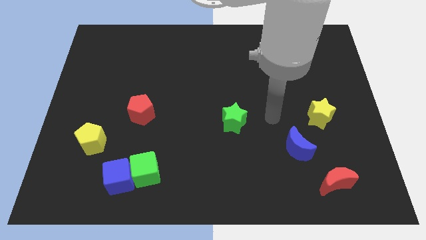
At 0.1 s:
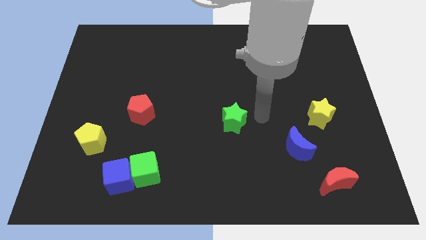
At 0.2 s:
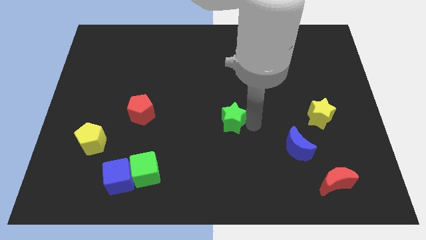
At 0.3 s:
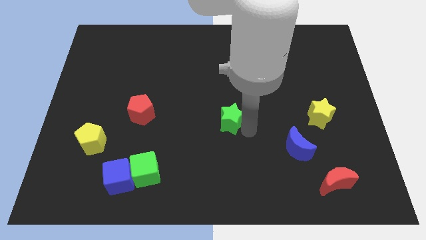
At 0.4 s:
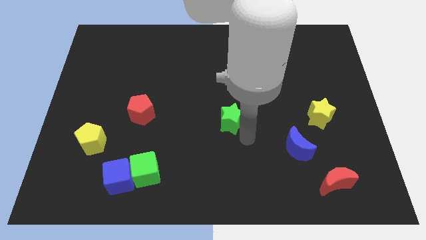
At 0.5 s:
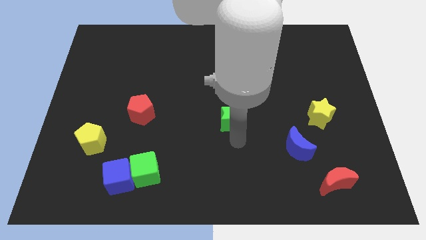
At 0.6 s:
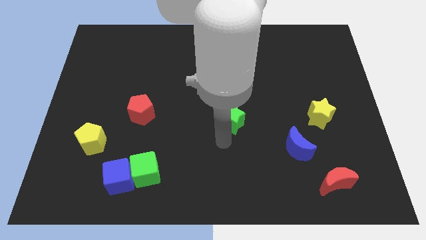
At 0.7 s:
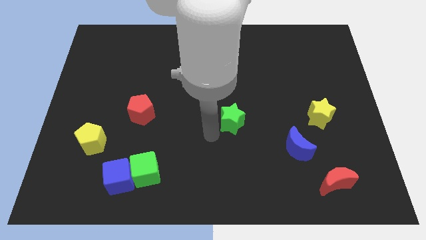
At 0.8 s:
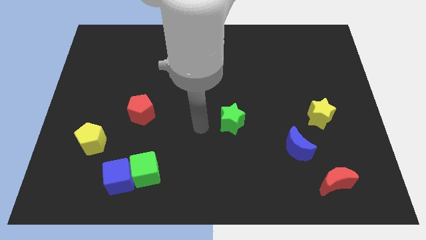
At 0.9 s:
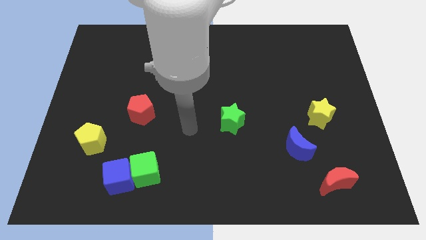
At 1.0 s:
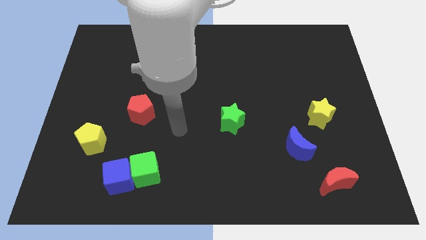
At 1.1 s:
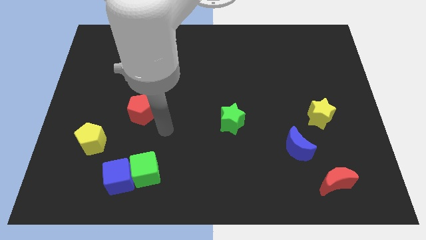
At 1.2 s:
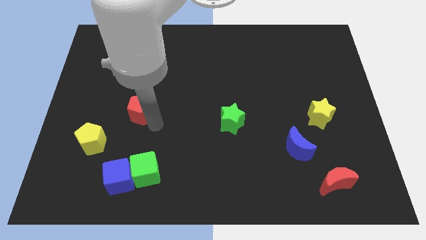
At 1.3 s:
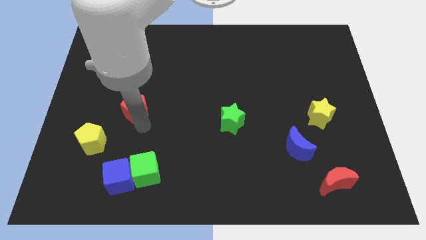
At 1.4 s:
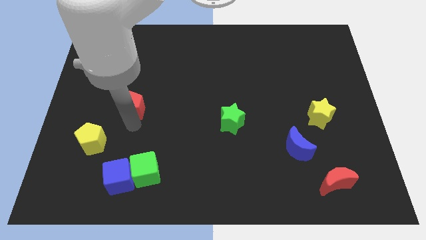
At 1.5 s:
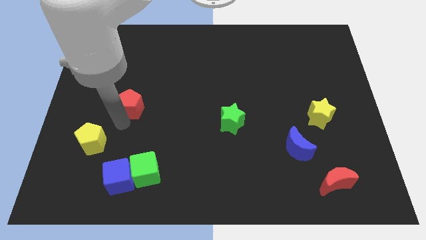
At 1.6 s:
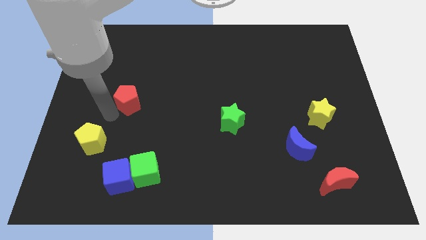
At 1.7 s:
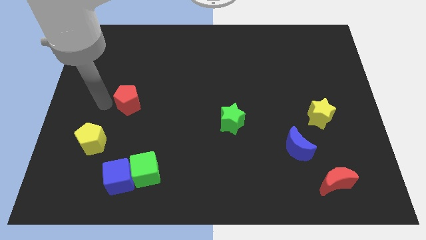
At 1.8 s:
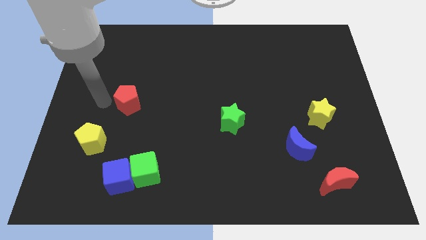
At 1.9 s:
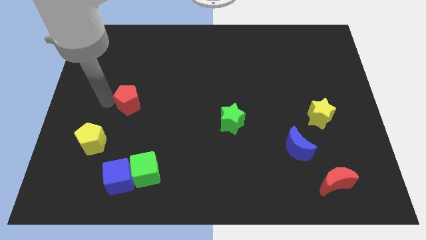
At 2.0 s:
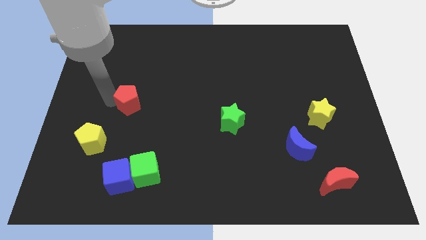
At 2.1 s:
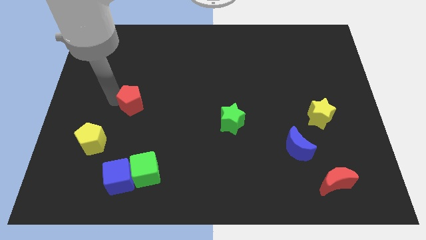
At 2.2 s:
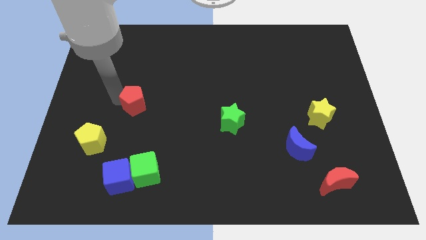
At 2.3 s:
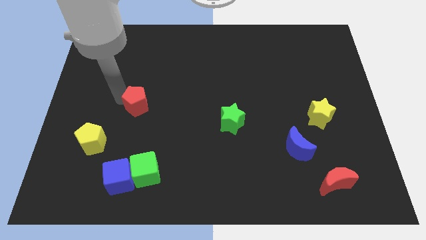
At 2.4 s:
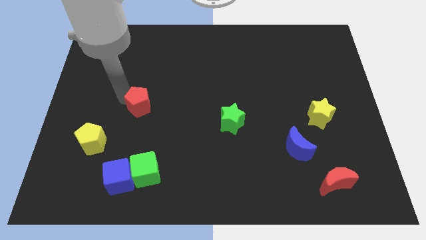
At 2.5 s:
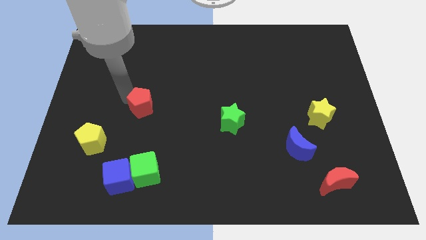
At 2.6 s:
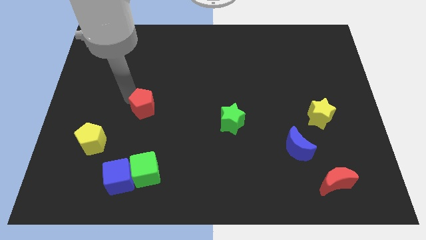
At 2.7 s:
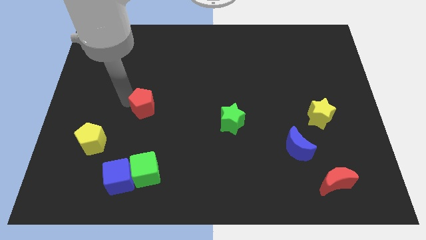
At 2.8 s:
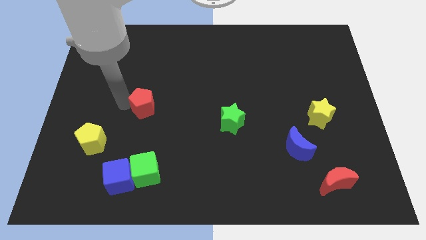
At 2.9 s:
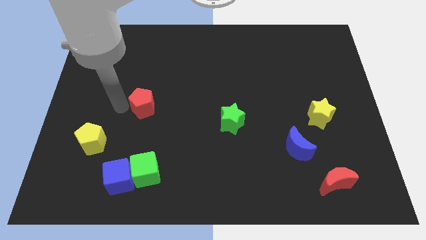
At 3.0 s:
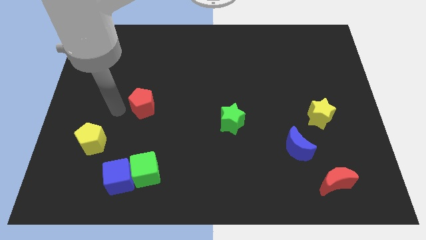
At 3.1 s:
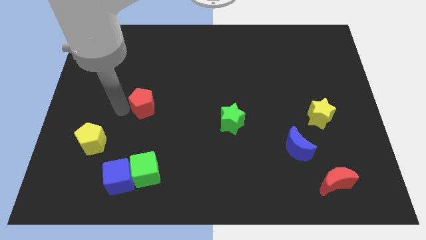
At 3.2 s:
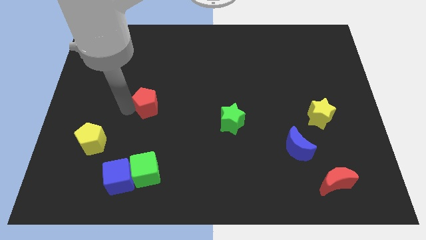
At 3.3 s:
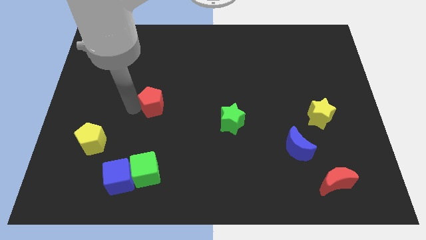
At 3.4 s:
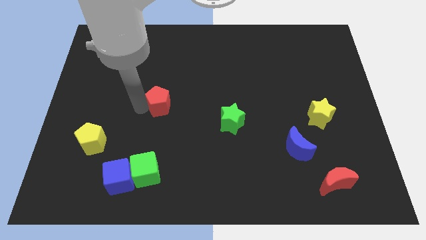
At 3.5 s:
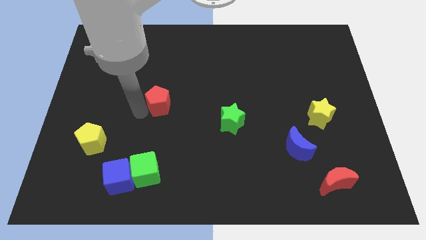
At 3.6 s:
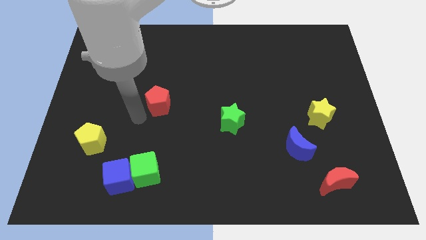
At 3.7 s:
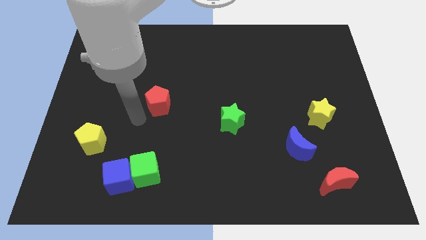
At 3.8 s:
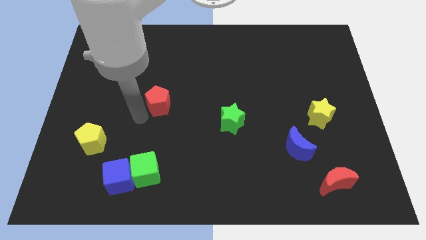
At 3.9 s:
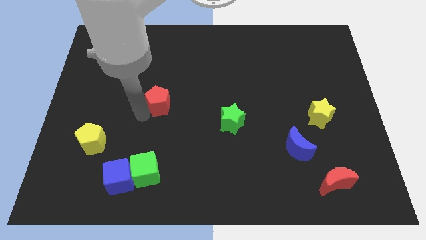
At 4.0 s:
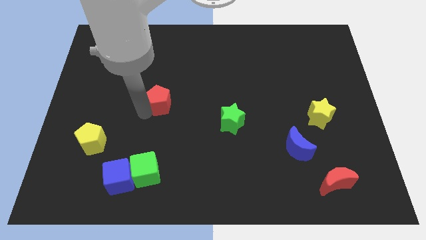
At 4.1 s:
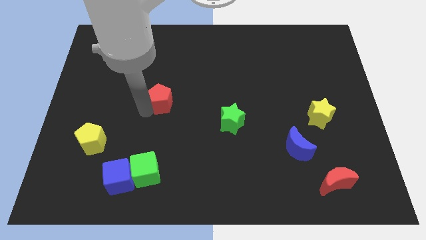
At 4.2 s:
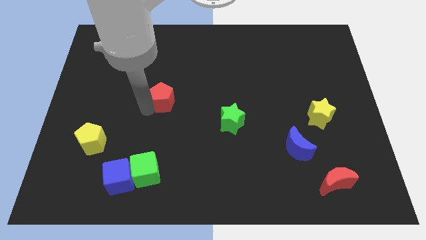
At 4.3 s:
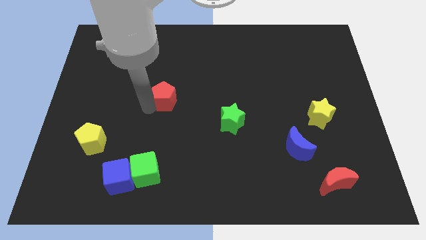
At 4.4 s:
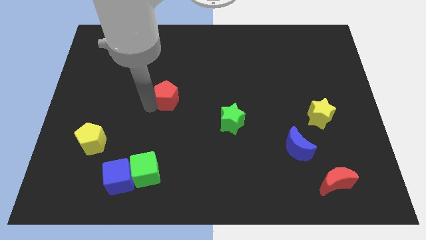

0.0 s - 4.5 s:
slightly move the red pentagon diagonally upwards and to the right

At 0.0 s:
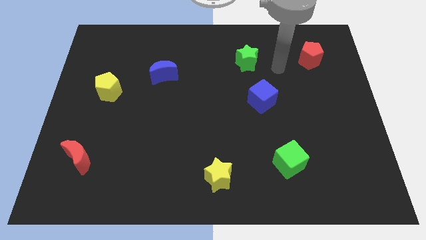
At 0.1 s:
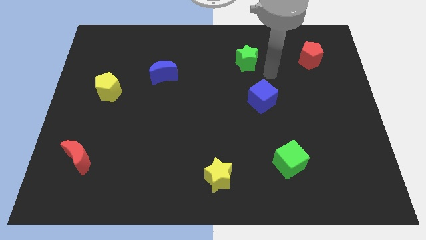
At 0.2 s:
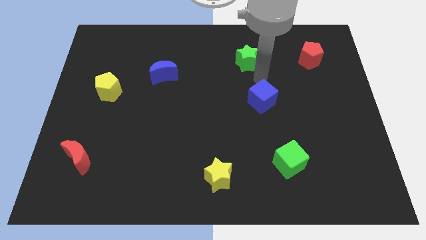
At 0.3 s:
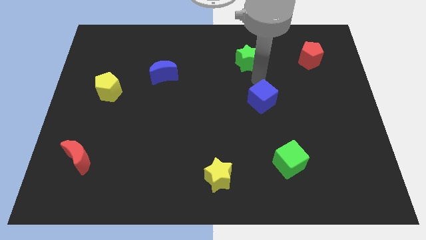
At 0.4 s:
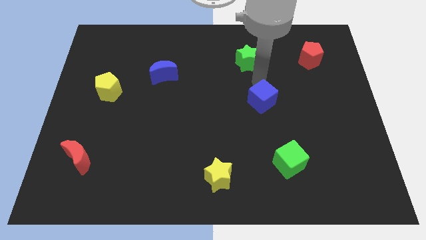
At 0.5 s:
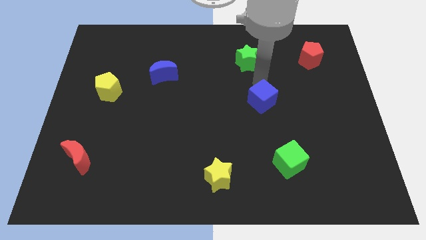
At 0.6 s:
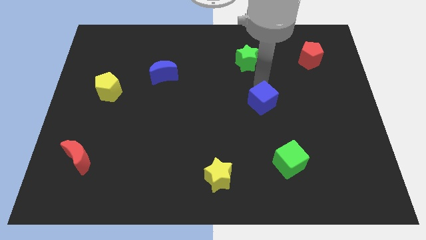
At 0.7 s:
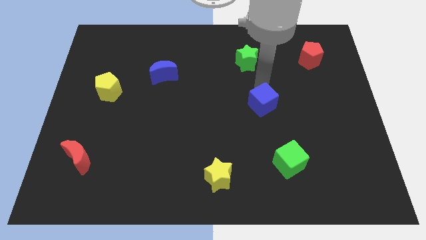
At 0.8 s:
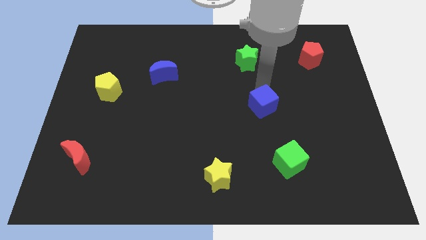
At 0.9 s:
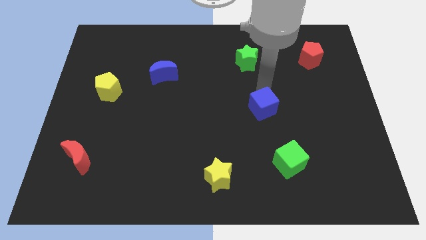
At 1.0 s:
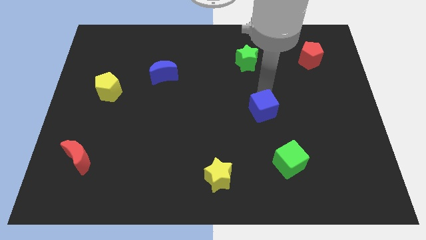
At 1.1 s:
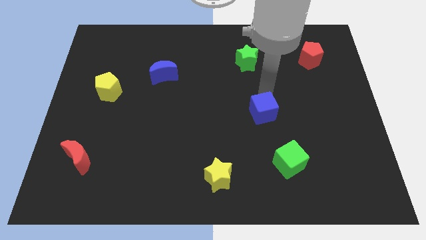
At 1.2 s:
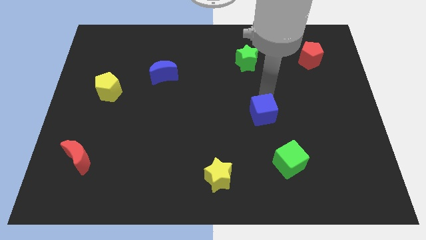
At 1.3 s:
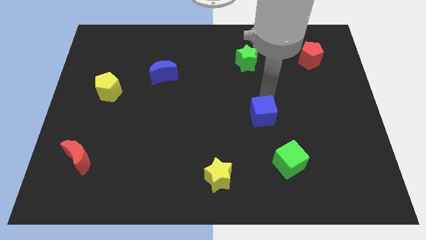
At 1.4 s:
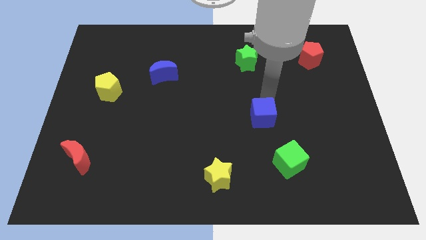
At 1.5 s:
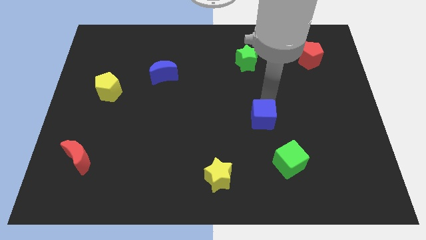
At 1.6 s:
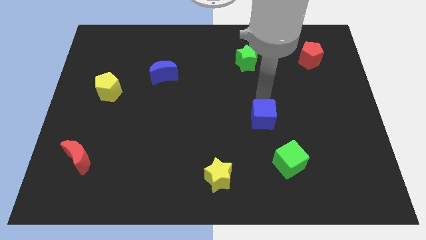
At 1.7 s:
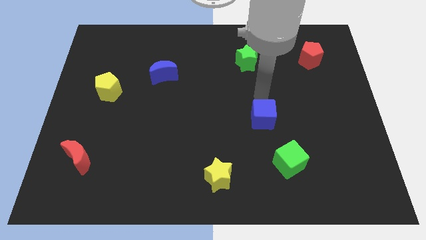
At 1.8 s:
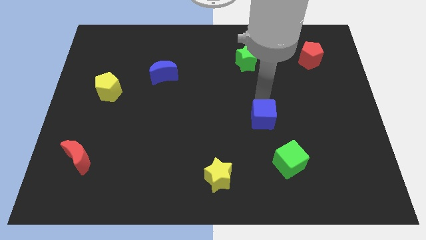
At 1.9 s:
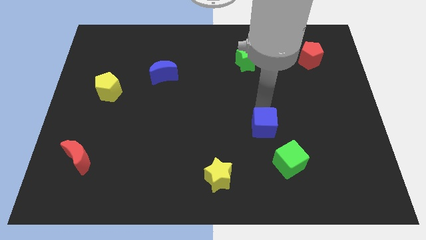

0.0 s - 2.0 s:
move the blue cube downwards slightly

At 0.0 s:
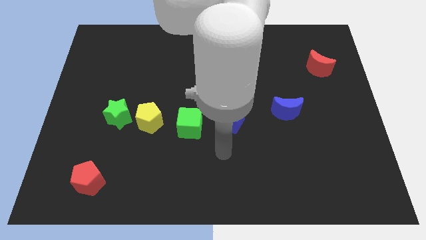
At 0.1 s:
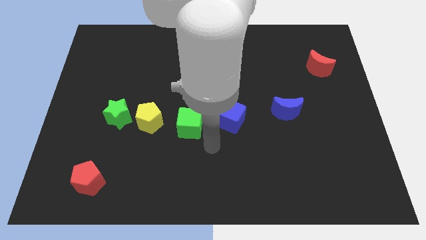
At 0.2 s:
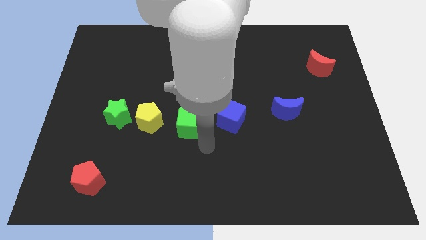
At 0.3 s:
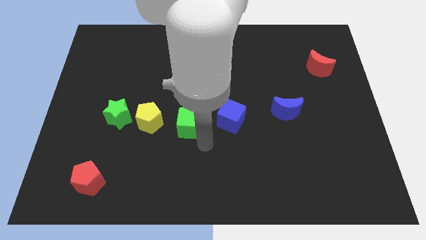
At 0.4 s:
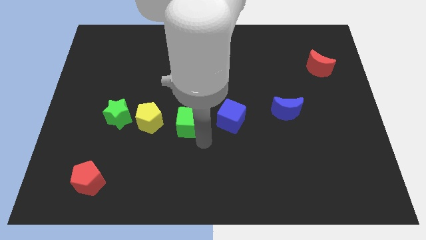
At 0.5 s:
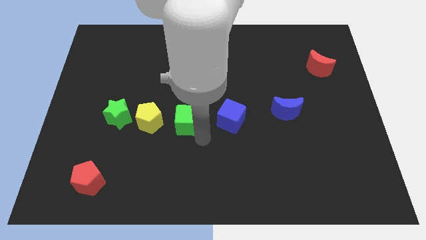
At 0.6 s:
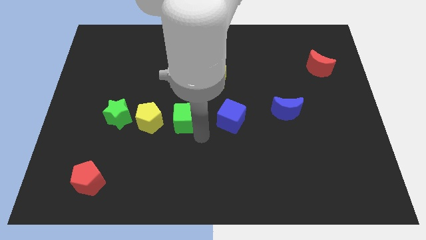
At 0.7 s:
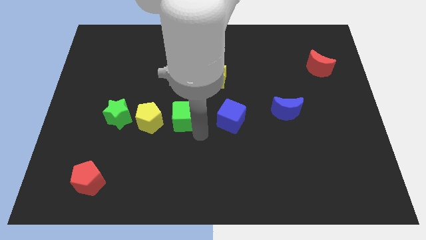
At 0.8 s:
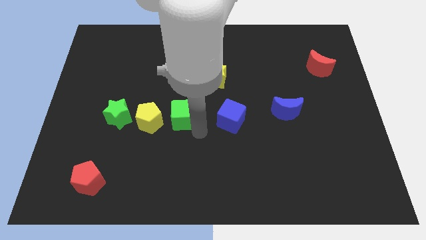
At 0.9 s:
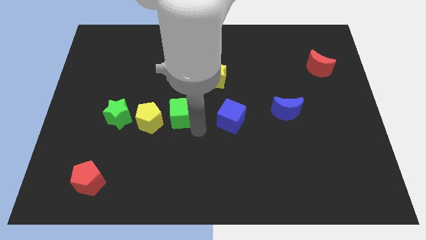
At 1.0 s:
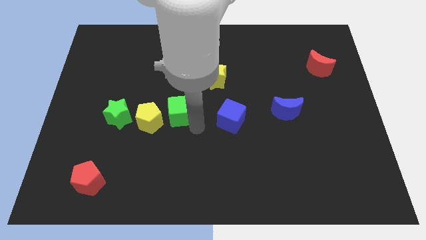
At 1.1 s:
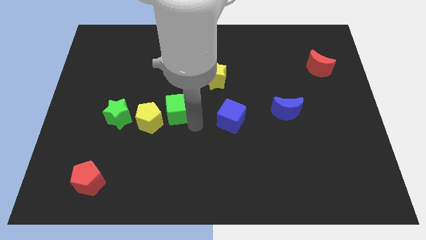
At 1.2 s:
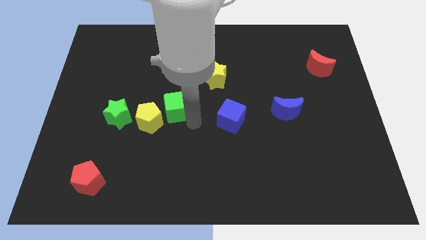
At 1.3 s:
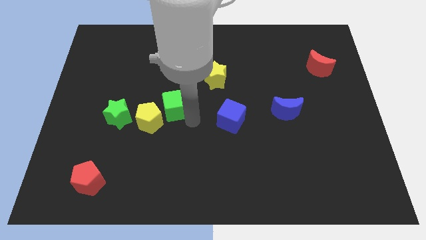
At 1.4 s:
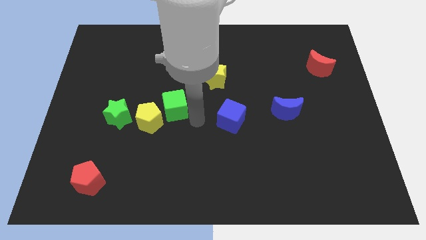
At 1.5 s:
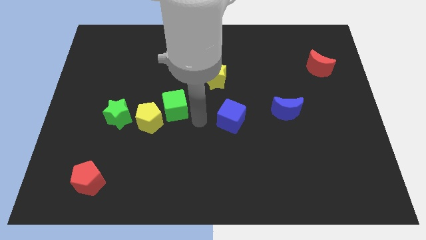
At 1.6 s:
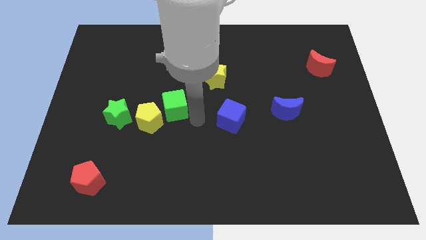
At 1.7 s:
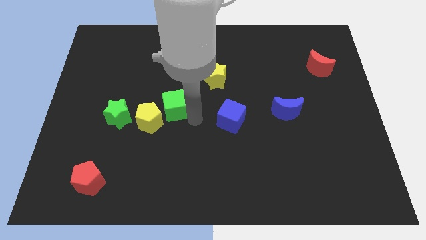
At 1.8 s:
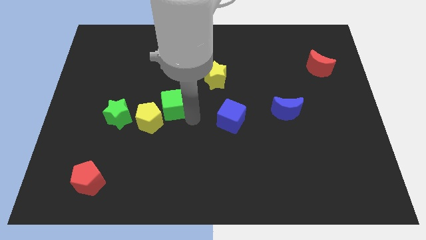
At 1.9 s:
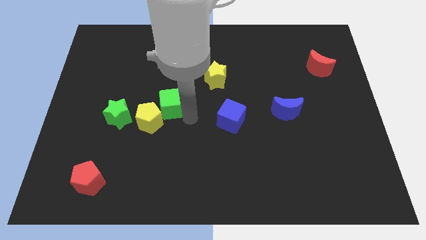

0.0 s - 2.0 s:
slightly push the green cube upwards and to the left
